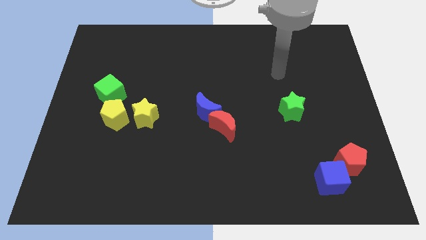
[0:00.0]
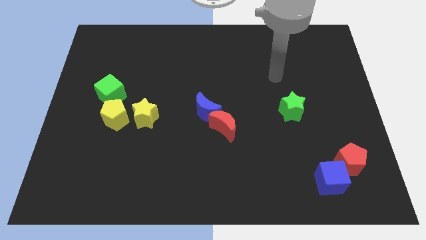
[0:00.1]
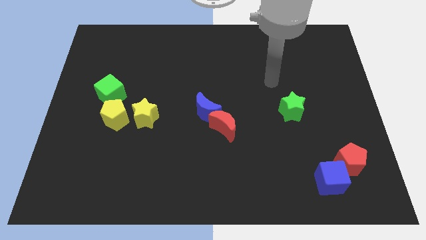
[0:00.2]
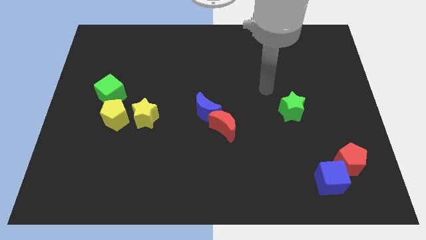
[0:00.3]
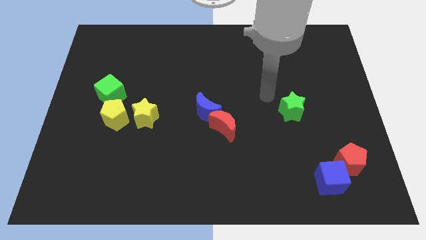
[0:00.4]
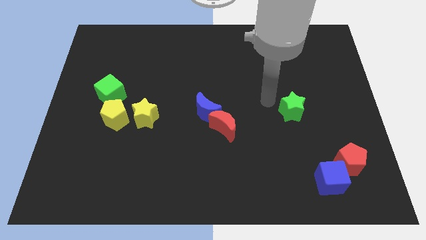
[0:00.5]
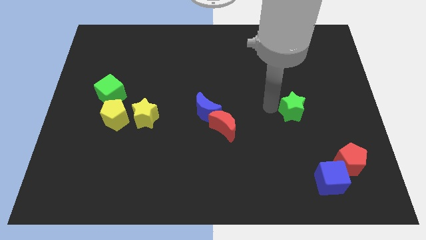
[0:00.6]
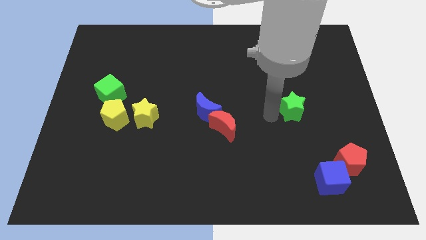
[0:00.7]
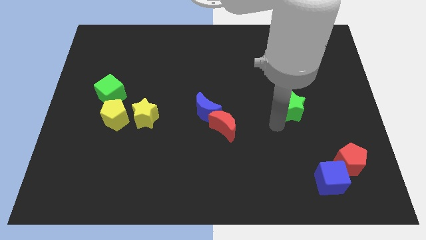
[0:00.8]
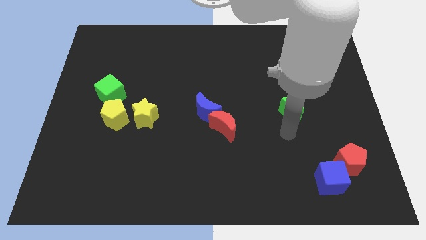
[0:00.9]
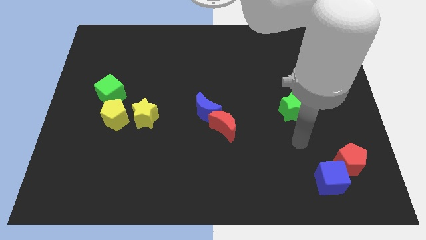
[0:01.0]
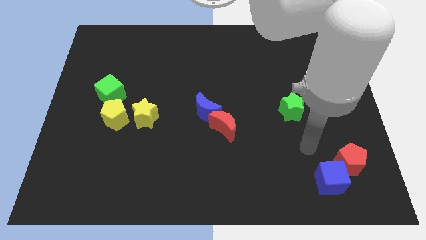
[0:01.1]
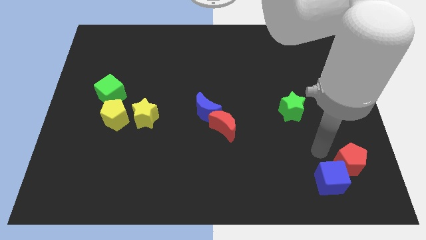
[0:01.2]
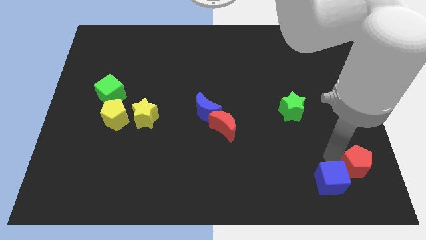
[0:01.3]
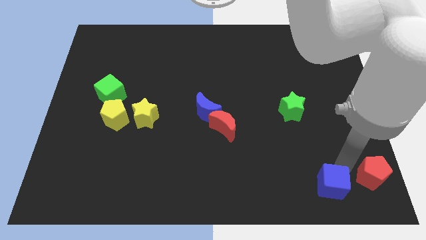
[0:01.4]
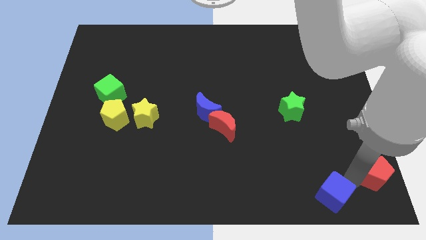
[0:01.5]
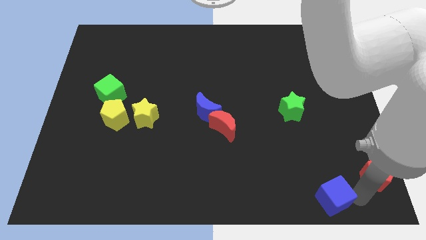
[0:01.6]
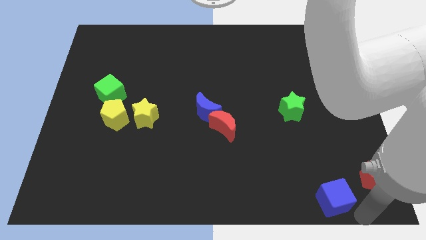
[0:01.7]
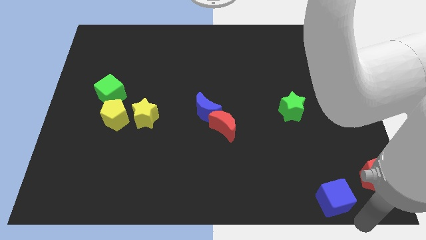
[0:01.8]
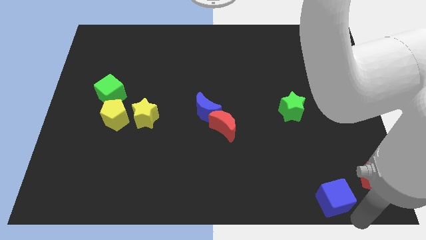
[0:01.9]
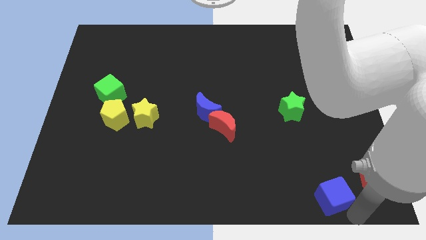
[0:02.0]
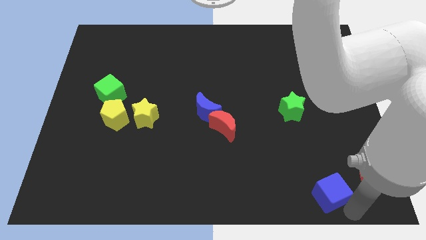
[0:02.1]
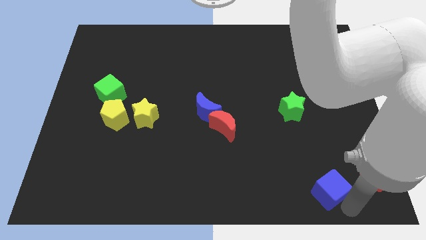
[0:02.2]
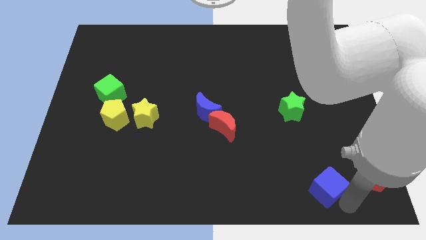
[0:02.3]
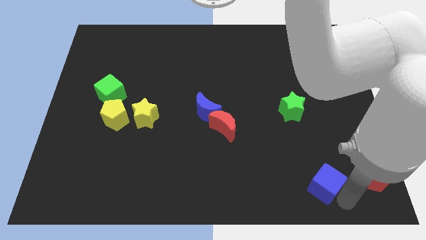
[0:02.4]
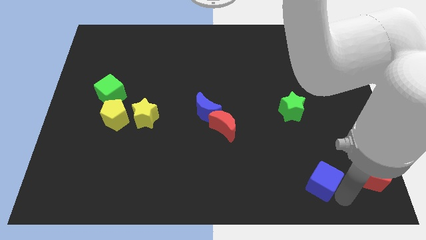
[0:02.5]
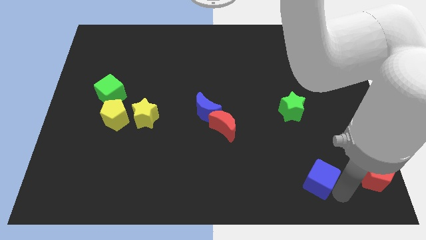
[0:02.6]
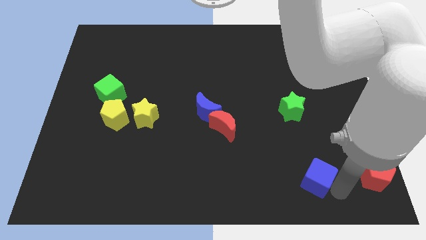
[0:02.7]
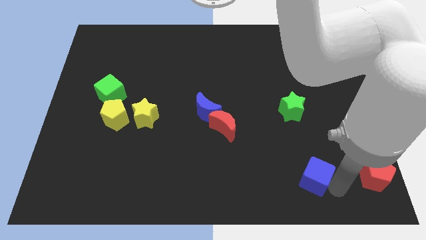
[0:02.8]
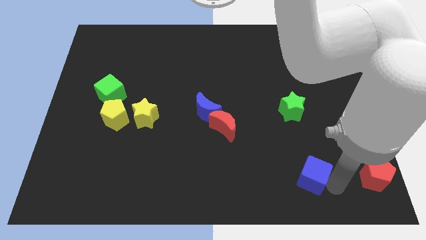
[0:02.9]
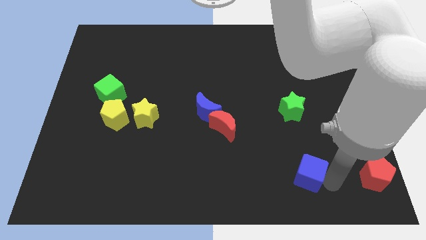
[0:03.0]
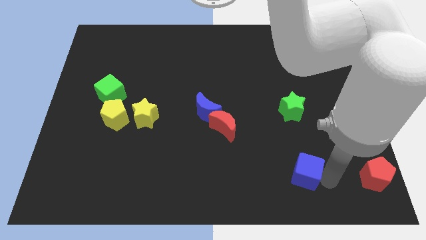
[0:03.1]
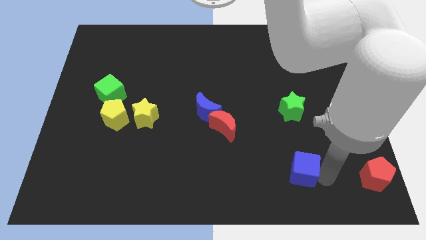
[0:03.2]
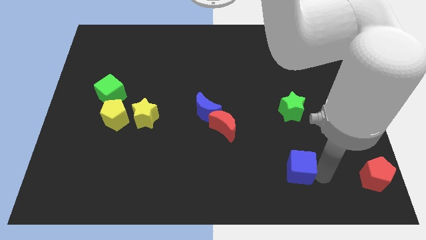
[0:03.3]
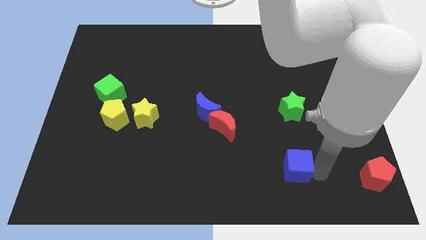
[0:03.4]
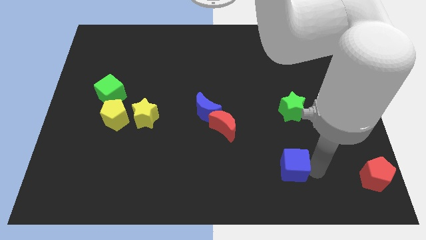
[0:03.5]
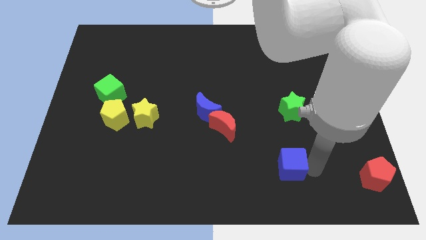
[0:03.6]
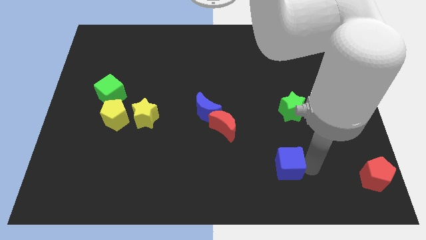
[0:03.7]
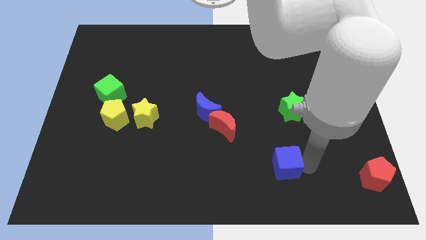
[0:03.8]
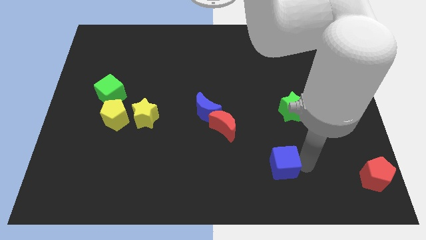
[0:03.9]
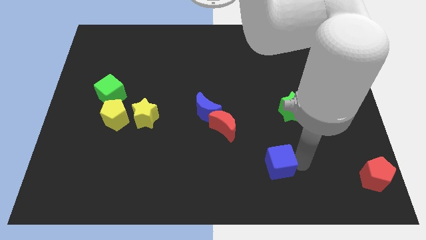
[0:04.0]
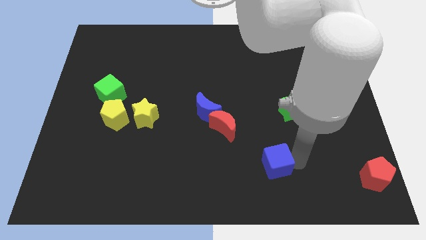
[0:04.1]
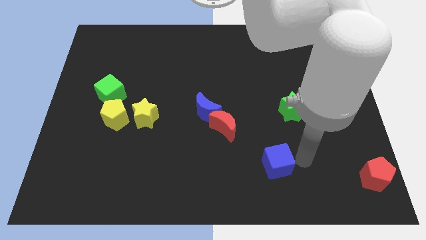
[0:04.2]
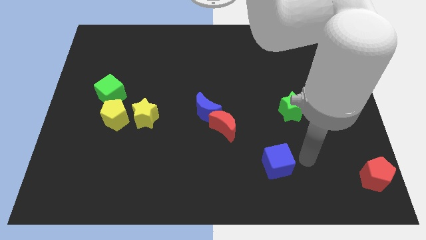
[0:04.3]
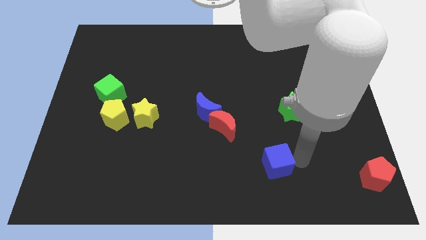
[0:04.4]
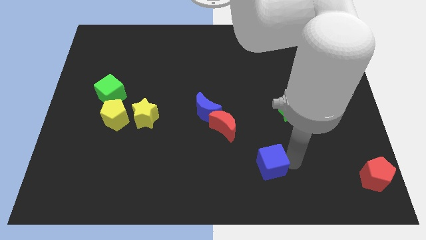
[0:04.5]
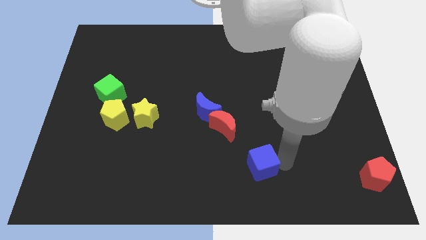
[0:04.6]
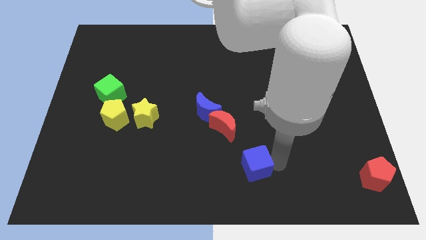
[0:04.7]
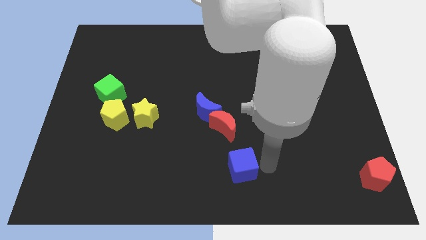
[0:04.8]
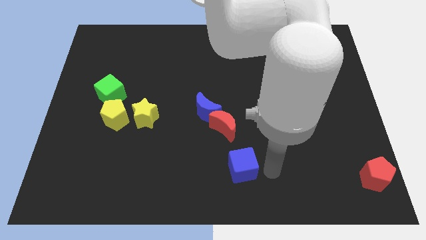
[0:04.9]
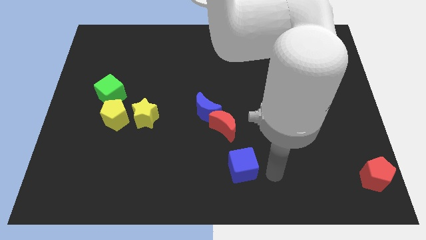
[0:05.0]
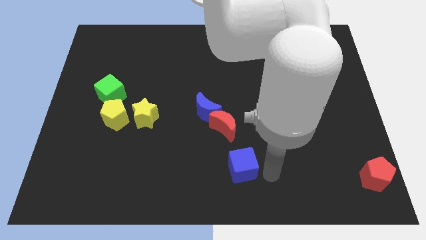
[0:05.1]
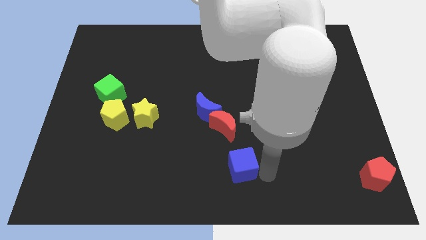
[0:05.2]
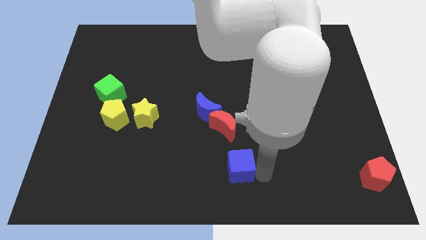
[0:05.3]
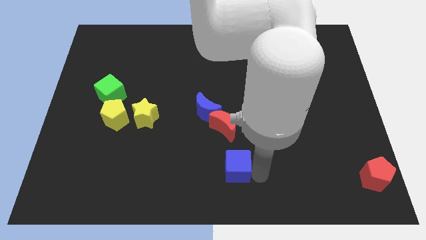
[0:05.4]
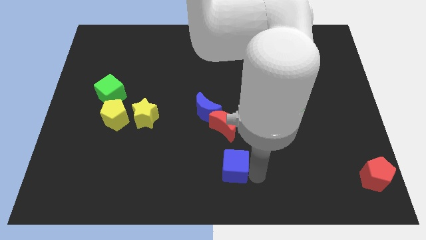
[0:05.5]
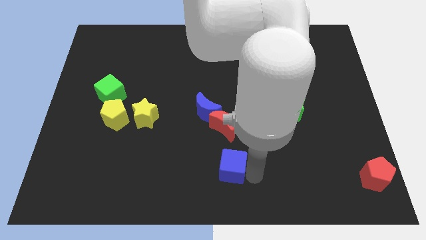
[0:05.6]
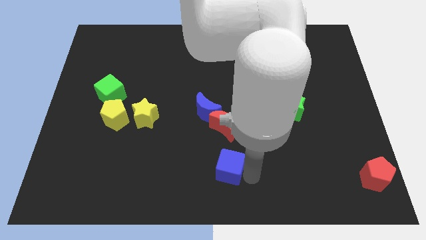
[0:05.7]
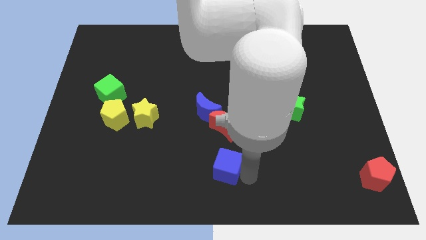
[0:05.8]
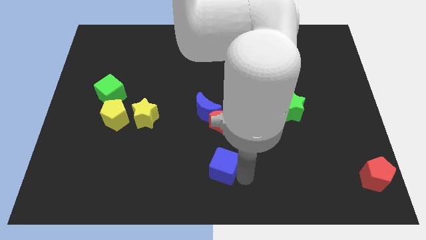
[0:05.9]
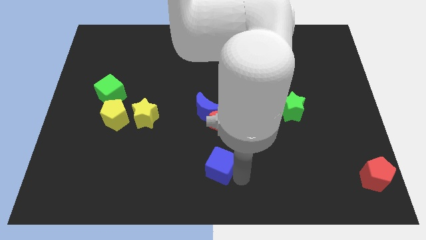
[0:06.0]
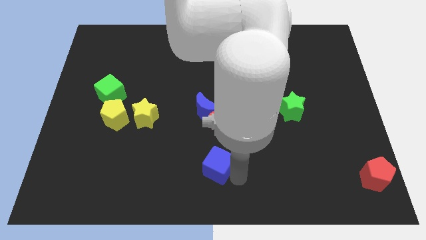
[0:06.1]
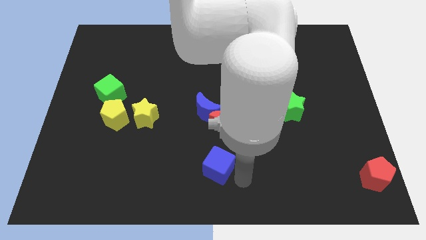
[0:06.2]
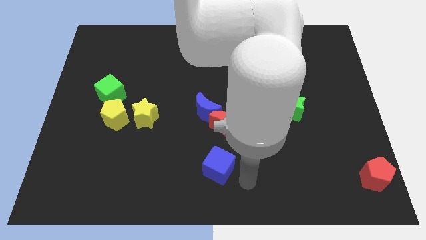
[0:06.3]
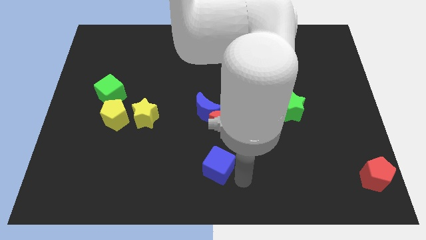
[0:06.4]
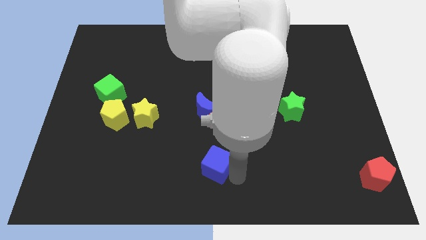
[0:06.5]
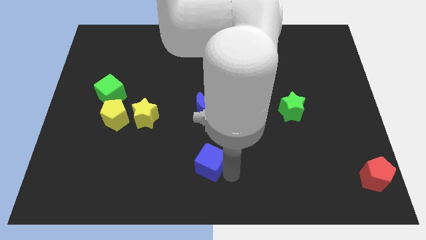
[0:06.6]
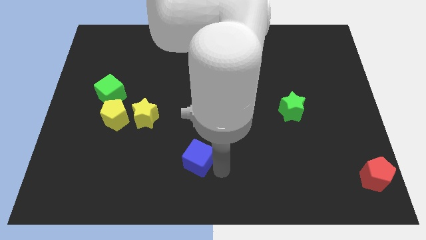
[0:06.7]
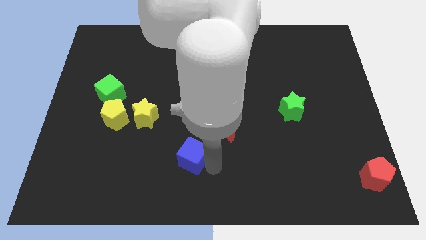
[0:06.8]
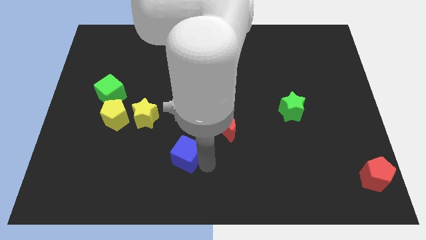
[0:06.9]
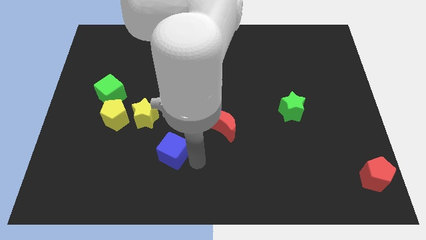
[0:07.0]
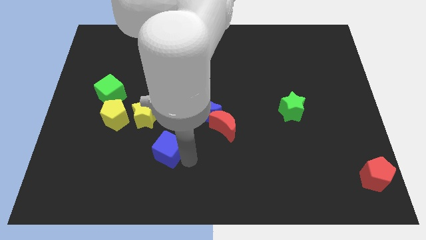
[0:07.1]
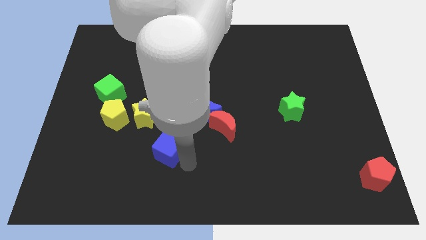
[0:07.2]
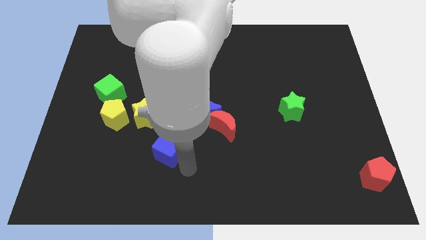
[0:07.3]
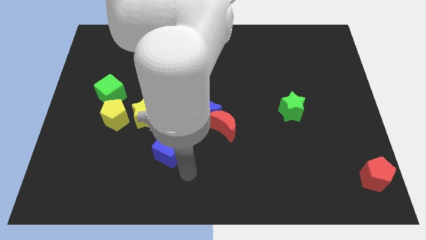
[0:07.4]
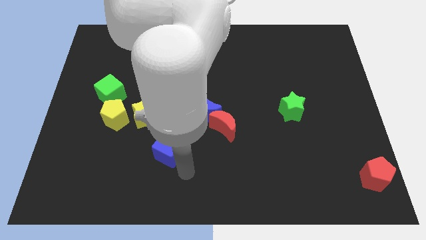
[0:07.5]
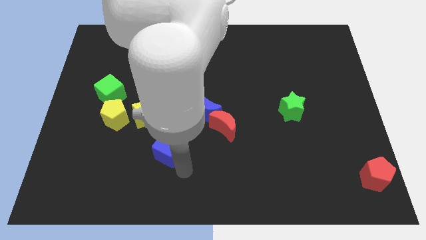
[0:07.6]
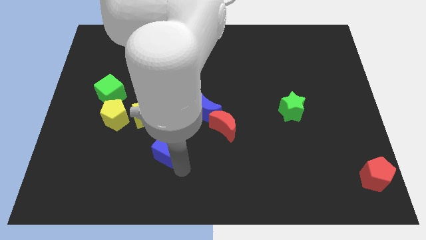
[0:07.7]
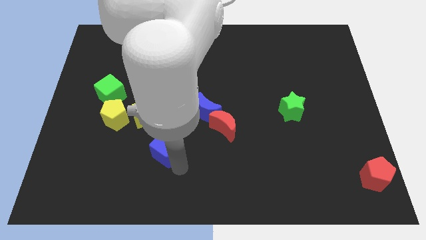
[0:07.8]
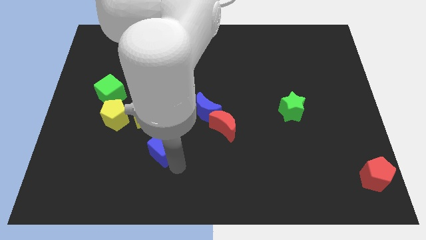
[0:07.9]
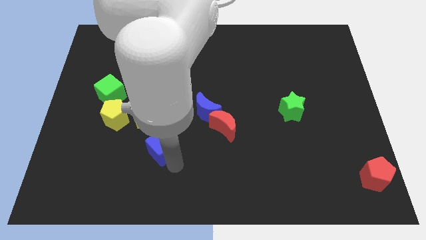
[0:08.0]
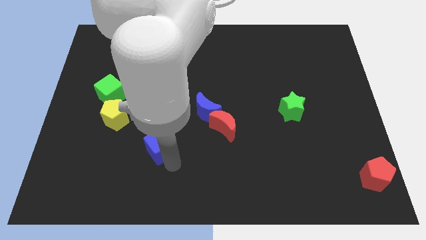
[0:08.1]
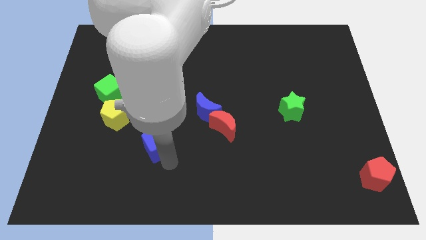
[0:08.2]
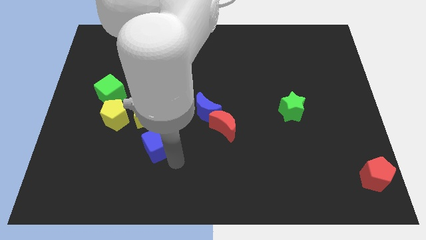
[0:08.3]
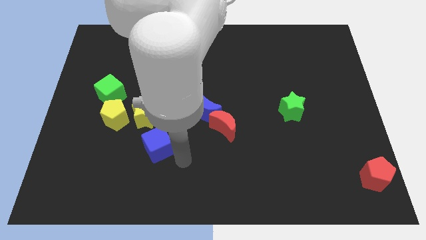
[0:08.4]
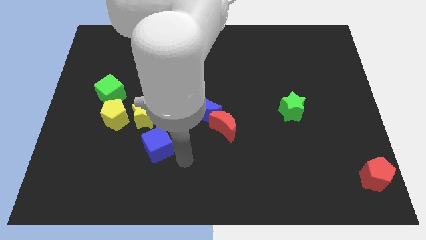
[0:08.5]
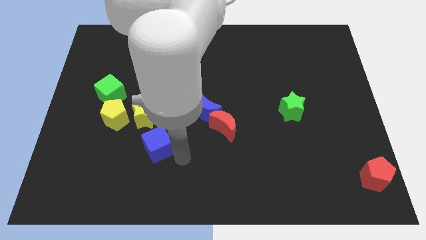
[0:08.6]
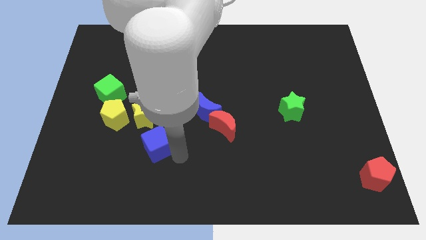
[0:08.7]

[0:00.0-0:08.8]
push the blue cube diagonally down and to the right of the yellow pentagon
